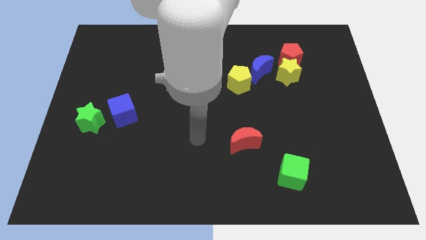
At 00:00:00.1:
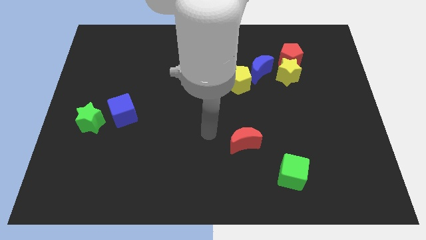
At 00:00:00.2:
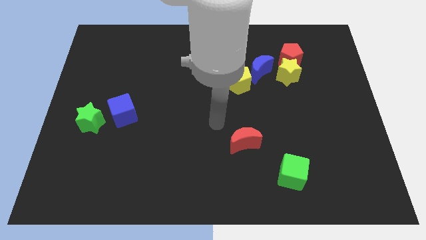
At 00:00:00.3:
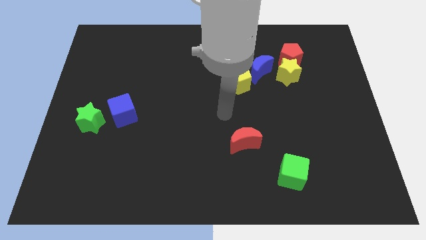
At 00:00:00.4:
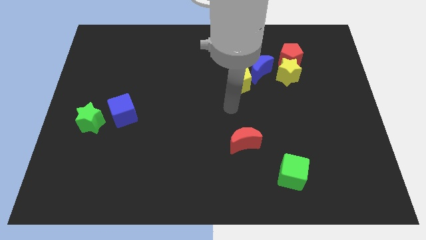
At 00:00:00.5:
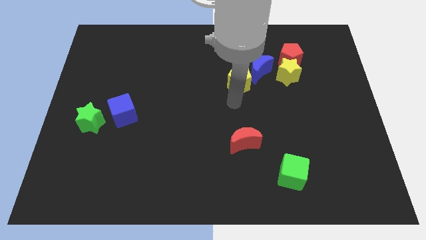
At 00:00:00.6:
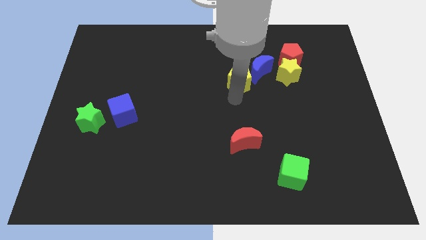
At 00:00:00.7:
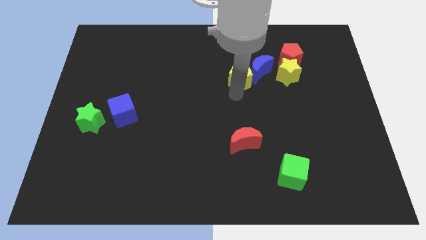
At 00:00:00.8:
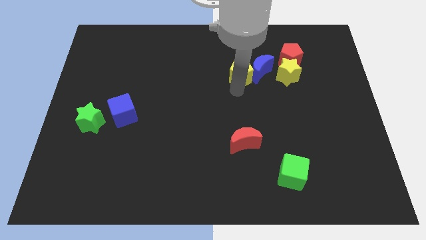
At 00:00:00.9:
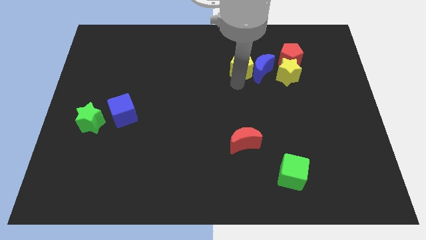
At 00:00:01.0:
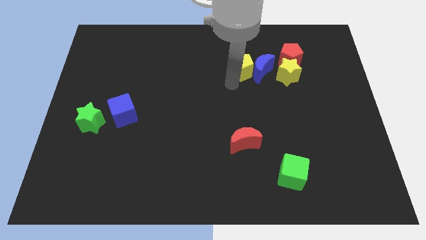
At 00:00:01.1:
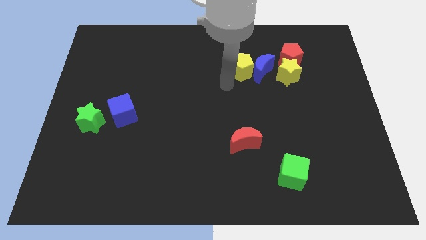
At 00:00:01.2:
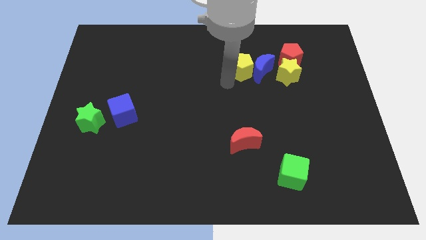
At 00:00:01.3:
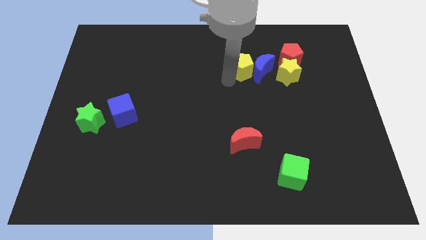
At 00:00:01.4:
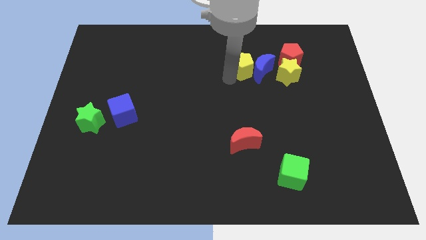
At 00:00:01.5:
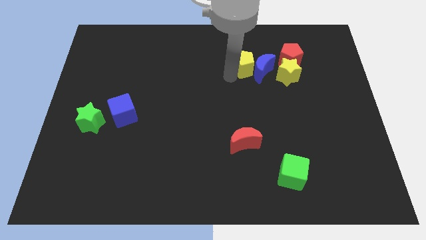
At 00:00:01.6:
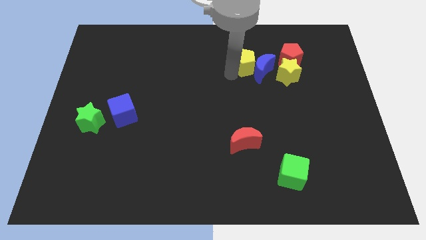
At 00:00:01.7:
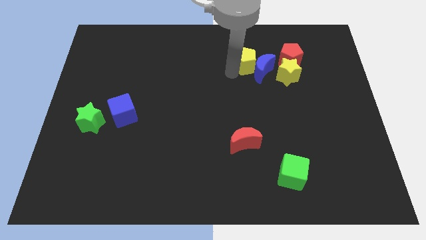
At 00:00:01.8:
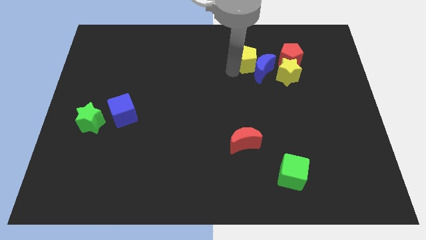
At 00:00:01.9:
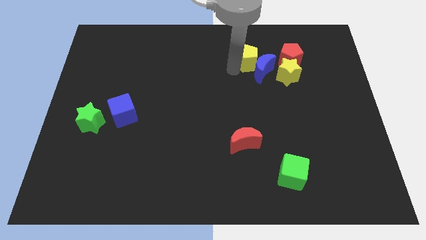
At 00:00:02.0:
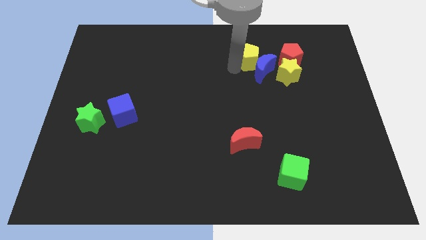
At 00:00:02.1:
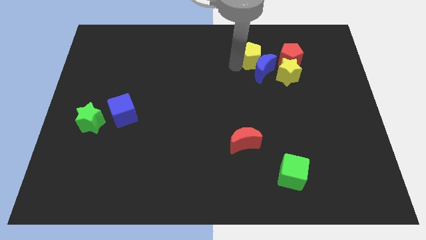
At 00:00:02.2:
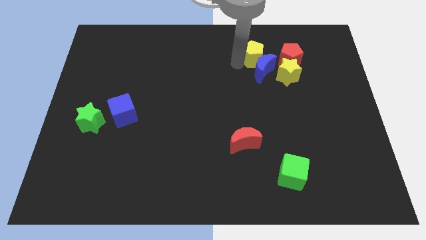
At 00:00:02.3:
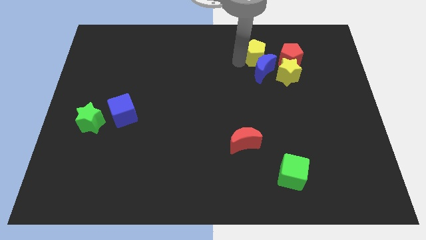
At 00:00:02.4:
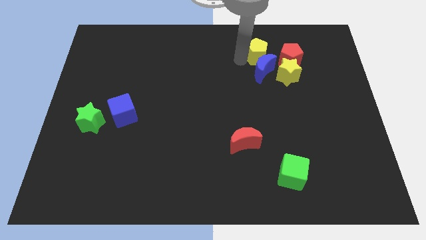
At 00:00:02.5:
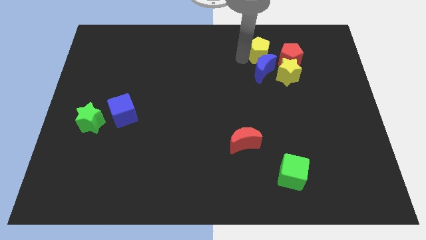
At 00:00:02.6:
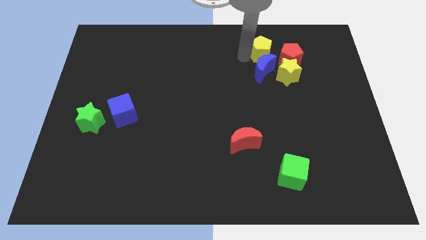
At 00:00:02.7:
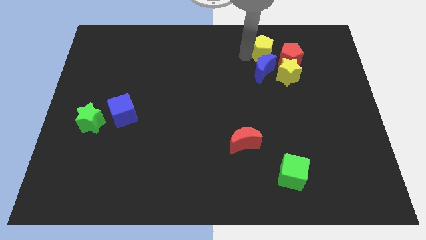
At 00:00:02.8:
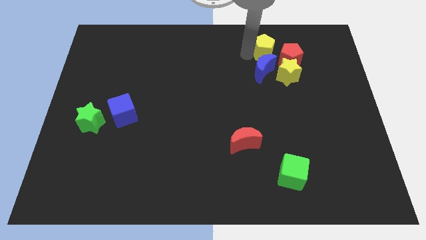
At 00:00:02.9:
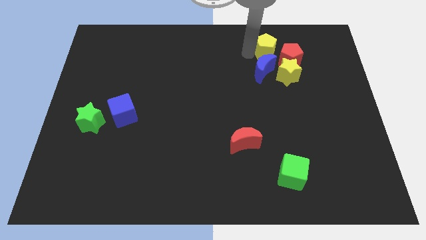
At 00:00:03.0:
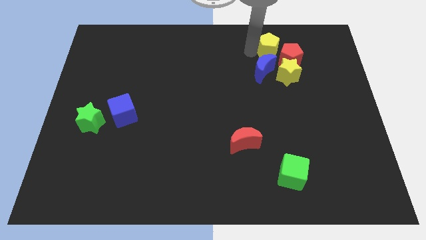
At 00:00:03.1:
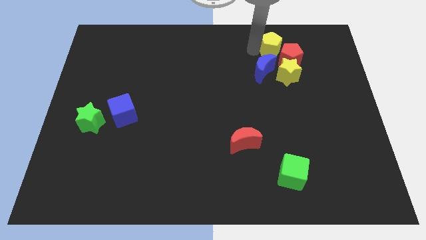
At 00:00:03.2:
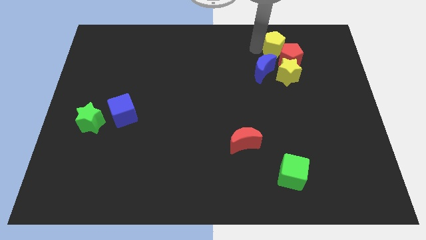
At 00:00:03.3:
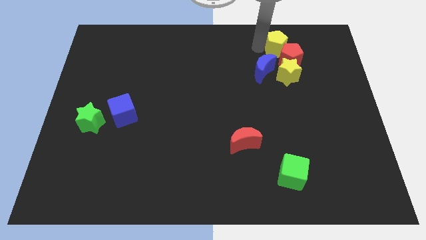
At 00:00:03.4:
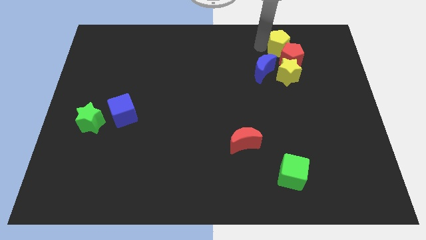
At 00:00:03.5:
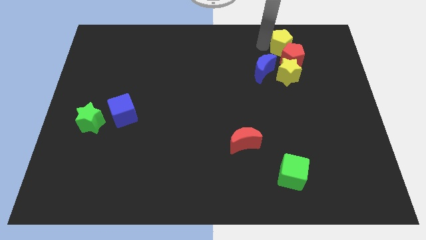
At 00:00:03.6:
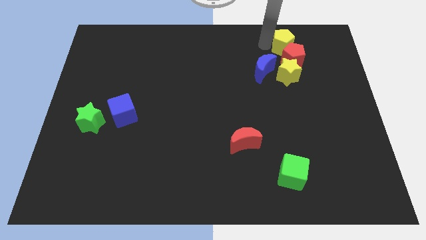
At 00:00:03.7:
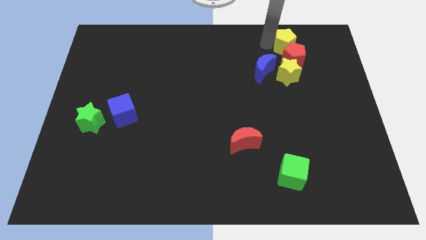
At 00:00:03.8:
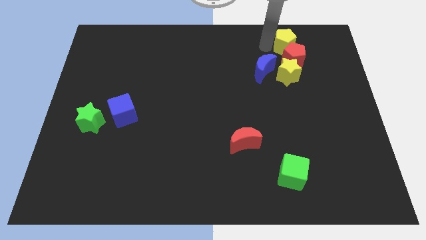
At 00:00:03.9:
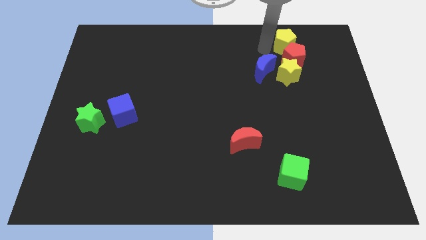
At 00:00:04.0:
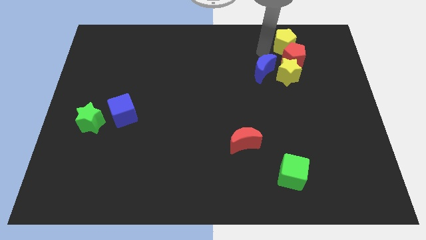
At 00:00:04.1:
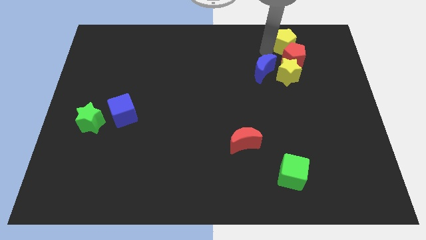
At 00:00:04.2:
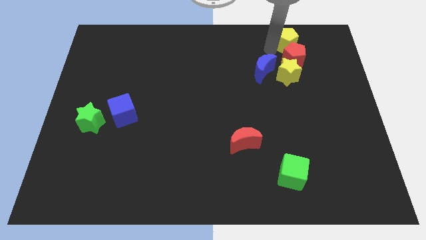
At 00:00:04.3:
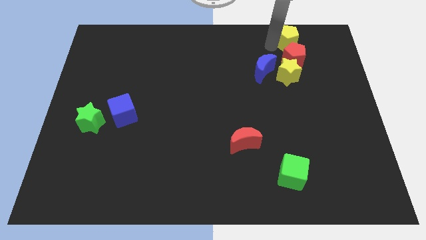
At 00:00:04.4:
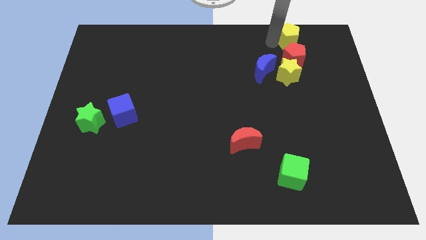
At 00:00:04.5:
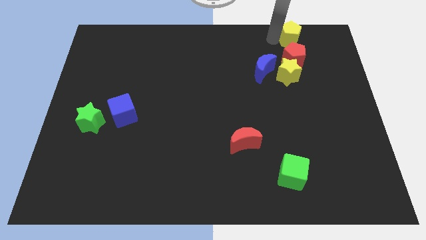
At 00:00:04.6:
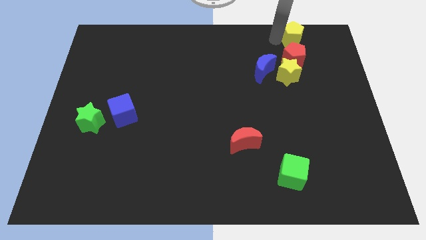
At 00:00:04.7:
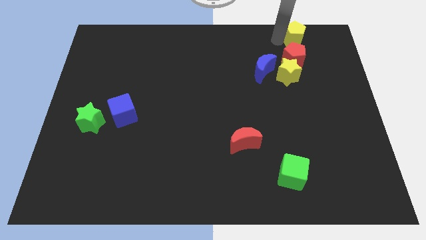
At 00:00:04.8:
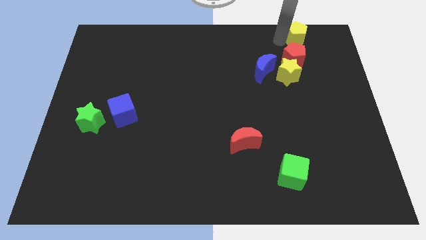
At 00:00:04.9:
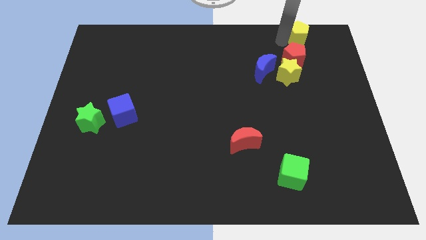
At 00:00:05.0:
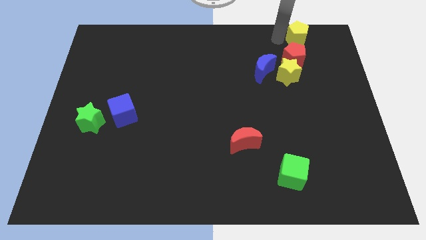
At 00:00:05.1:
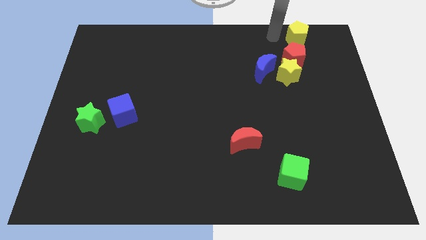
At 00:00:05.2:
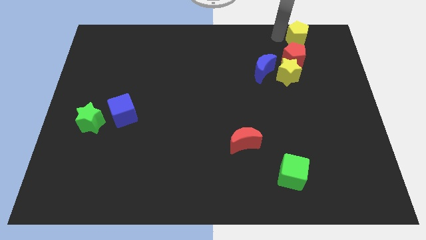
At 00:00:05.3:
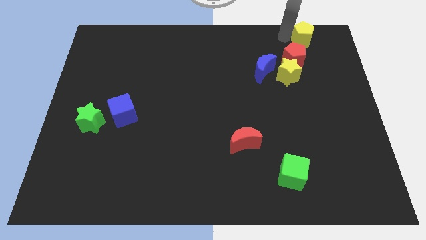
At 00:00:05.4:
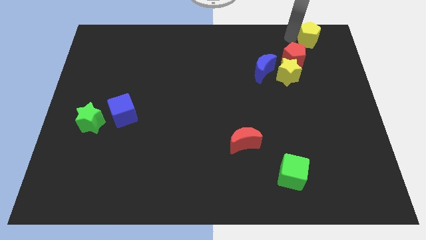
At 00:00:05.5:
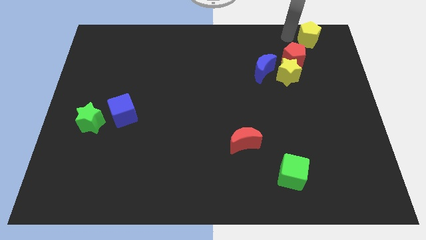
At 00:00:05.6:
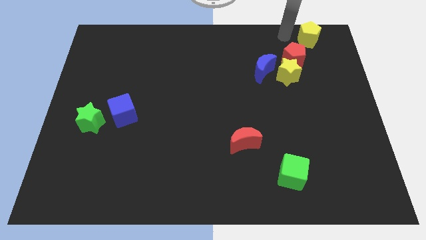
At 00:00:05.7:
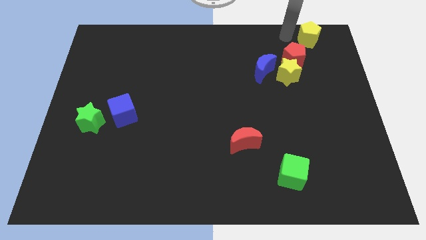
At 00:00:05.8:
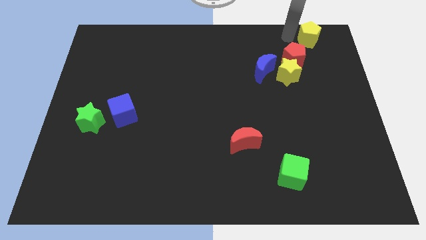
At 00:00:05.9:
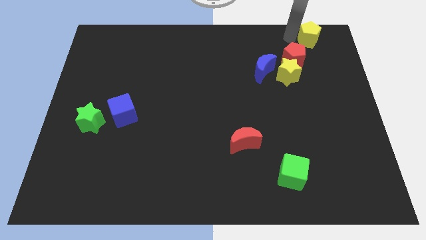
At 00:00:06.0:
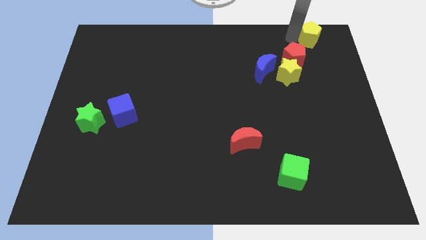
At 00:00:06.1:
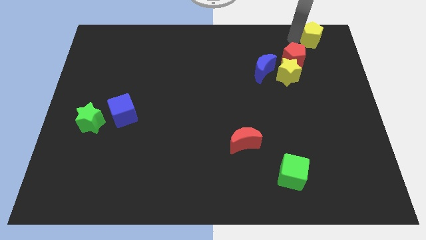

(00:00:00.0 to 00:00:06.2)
put the yellow pentagon to the top right

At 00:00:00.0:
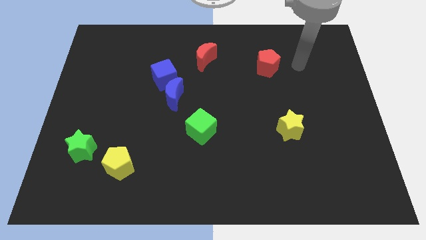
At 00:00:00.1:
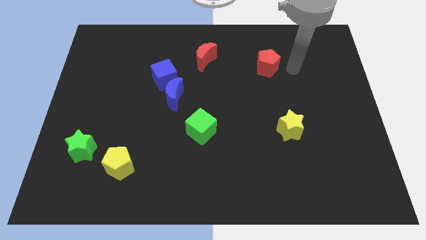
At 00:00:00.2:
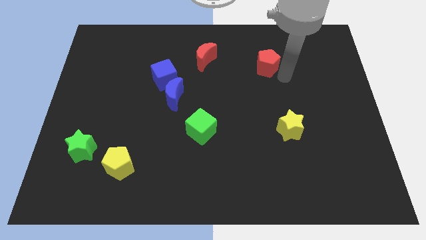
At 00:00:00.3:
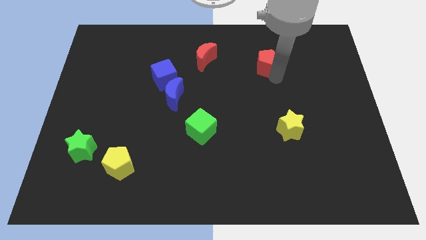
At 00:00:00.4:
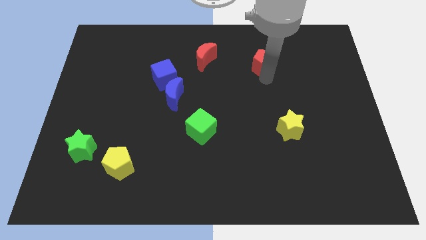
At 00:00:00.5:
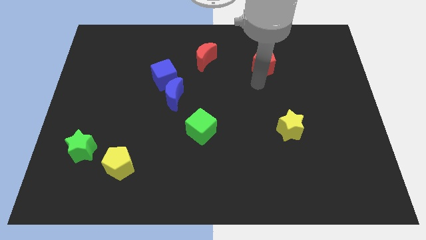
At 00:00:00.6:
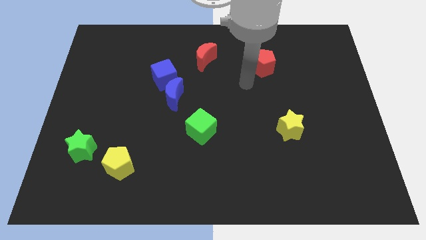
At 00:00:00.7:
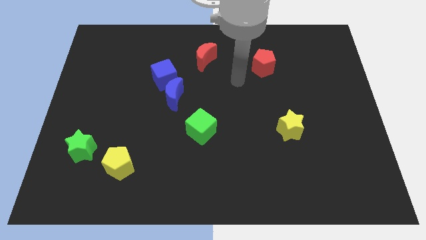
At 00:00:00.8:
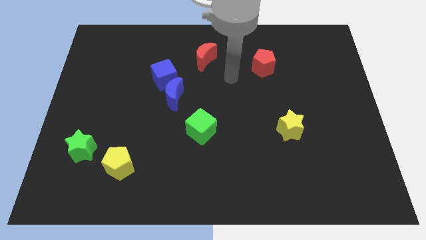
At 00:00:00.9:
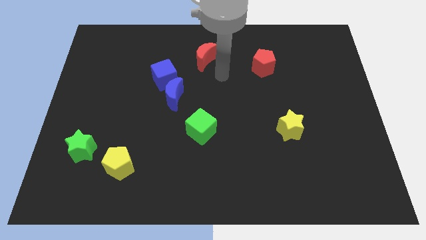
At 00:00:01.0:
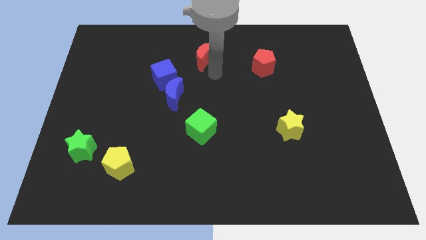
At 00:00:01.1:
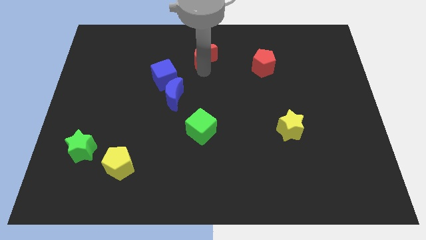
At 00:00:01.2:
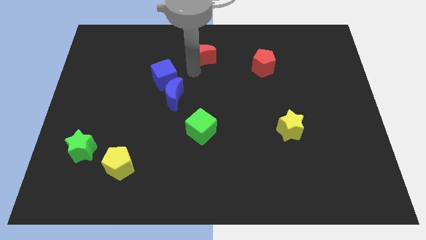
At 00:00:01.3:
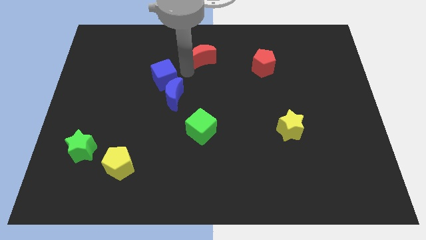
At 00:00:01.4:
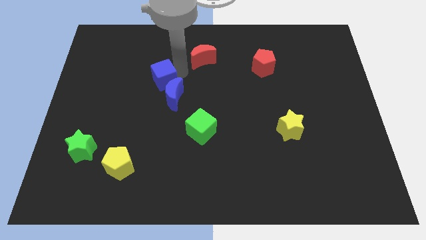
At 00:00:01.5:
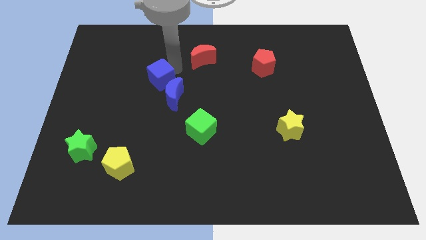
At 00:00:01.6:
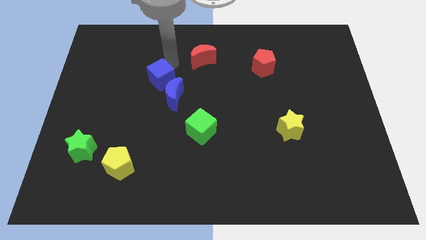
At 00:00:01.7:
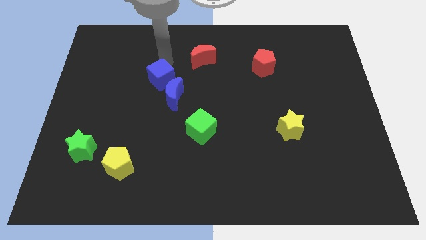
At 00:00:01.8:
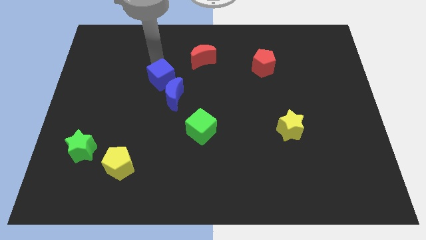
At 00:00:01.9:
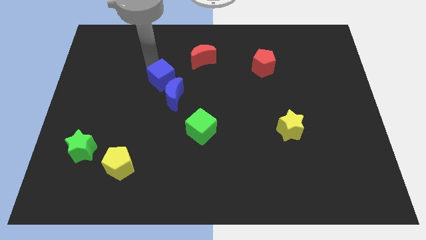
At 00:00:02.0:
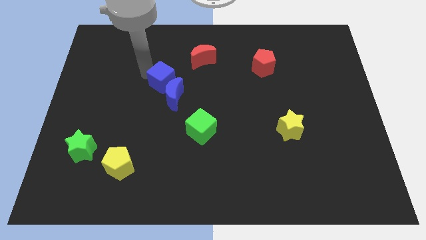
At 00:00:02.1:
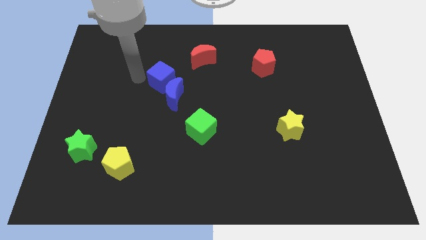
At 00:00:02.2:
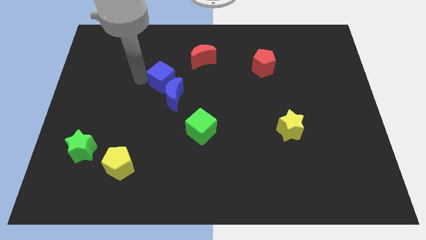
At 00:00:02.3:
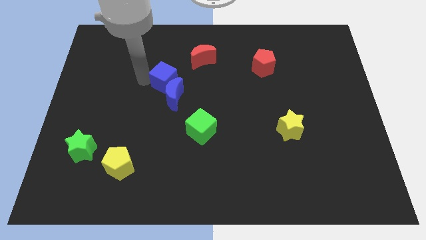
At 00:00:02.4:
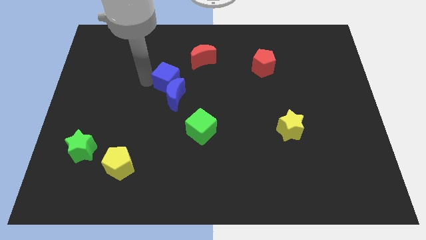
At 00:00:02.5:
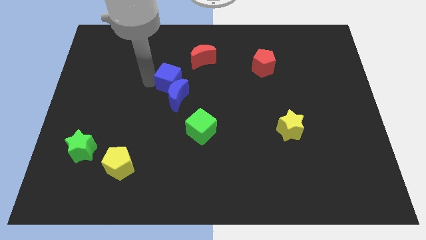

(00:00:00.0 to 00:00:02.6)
put the blue cube to the center of the board
